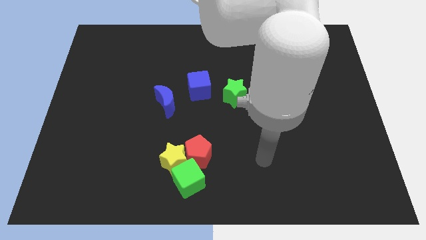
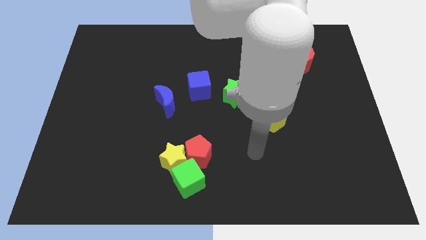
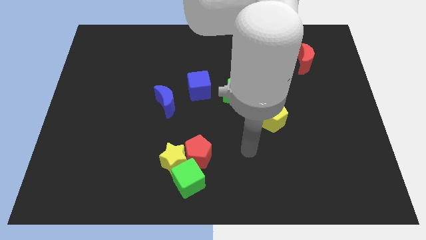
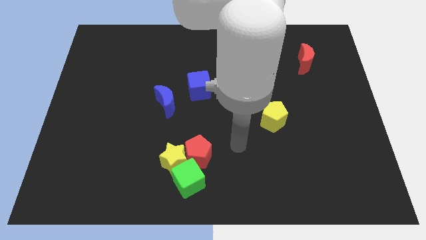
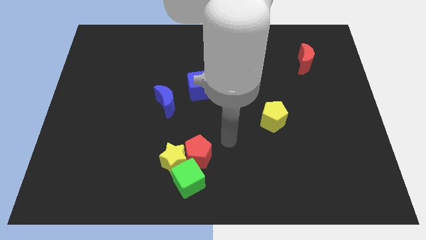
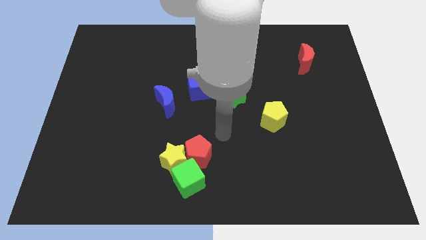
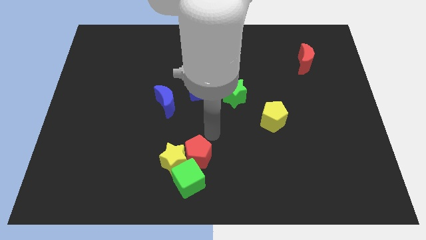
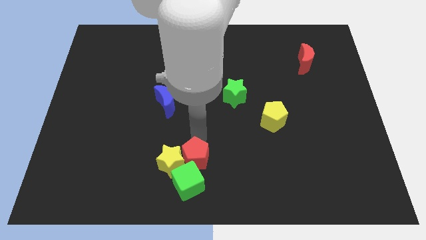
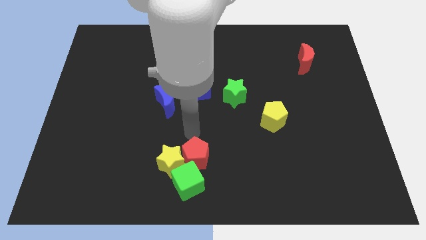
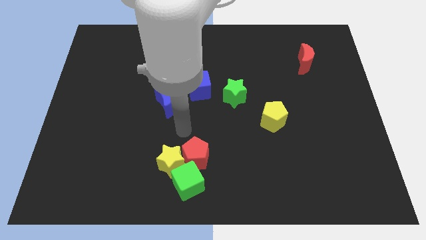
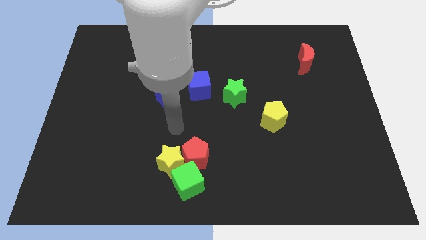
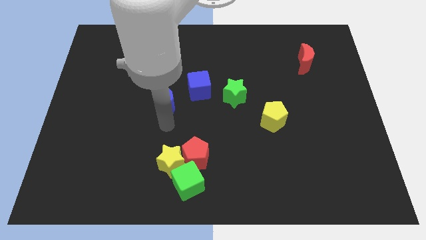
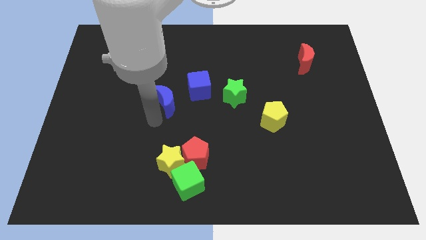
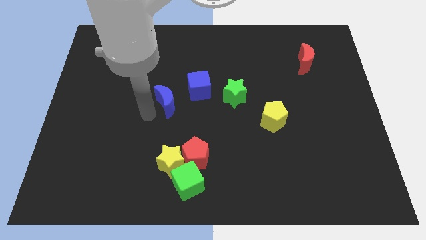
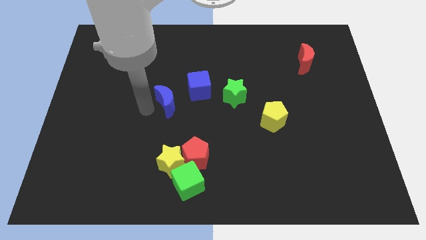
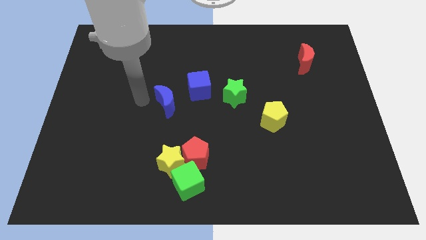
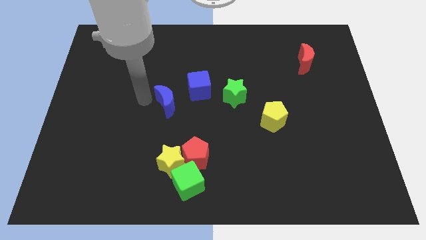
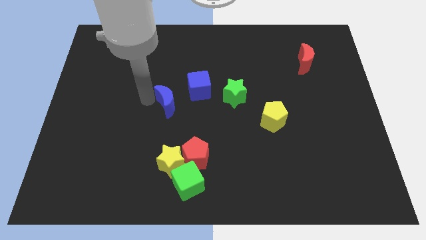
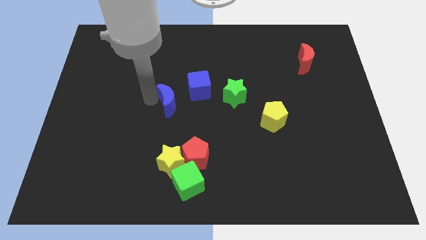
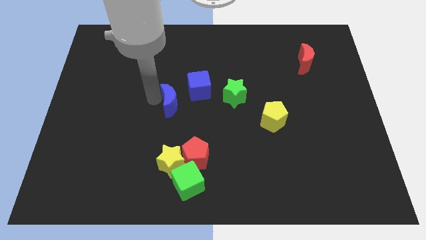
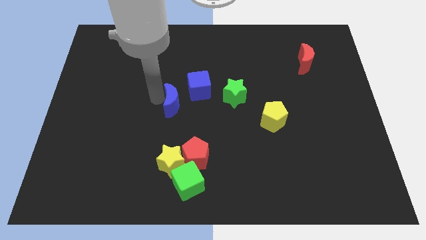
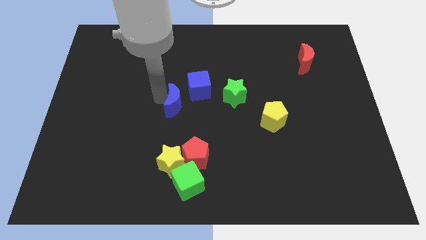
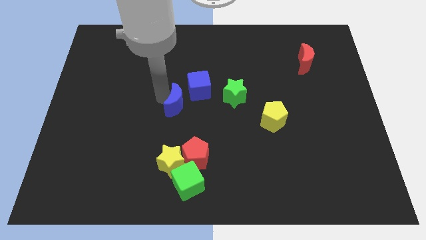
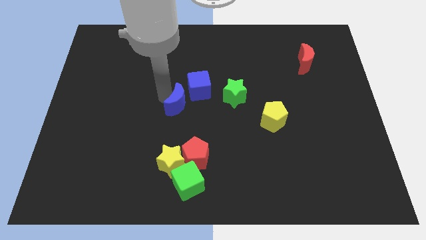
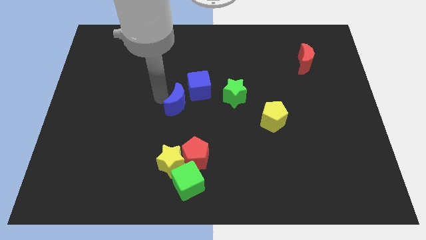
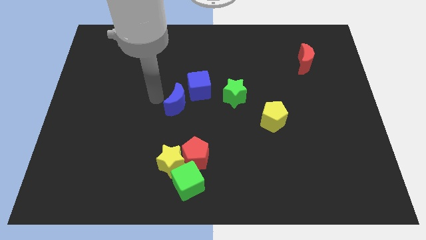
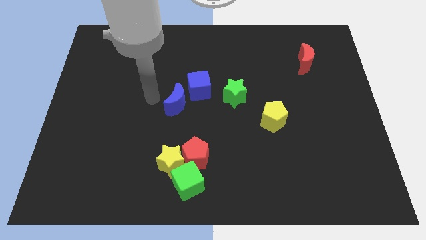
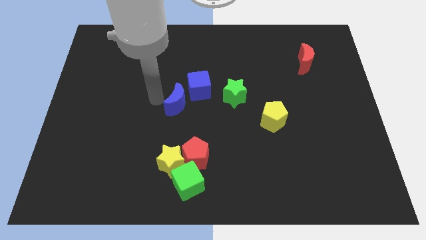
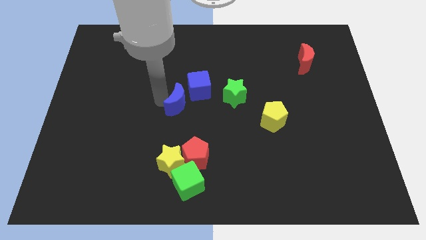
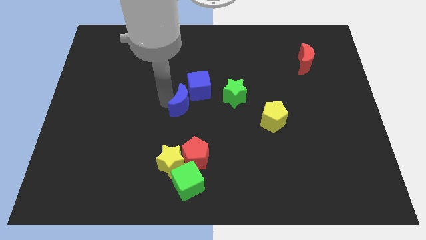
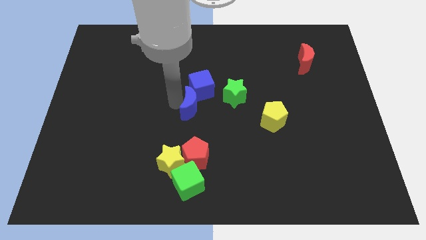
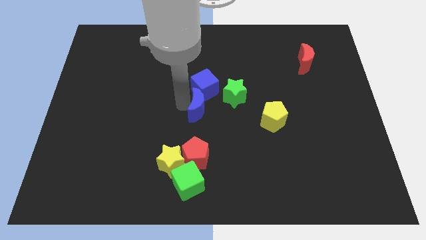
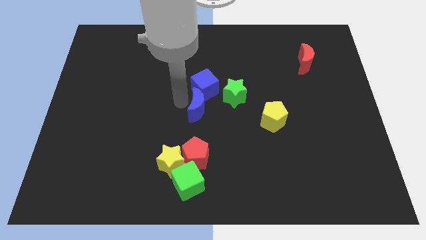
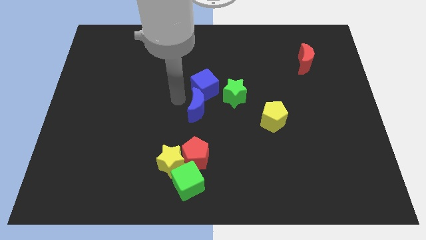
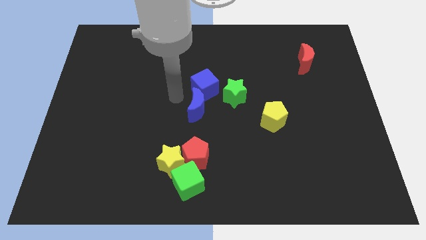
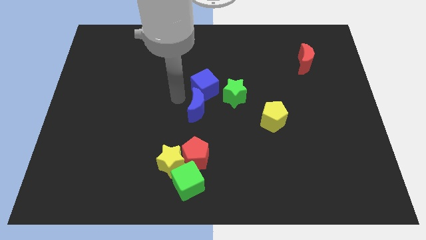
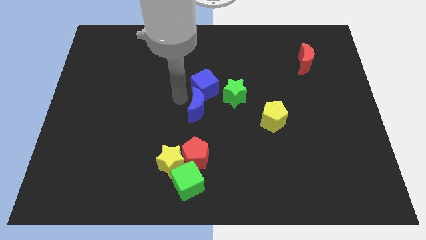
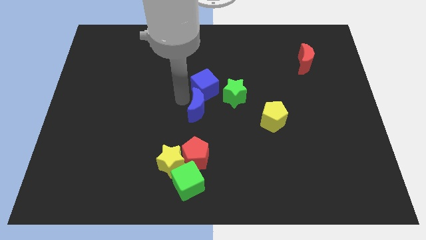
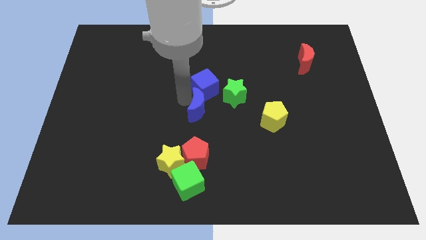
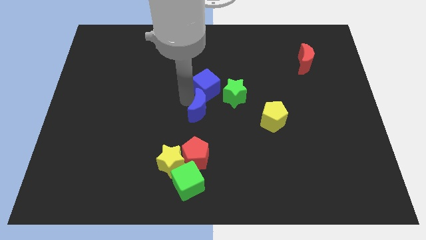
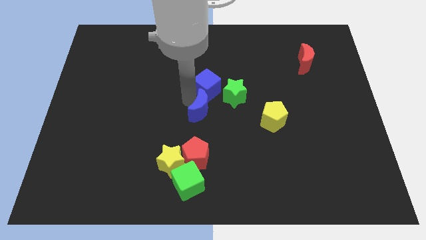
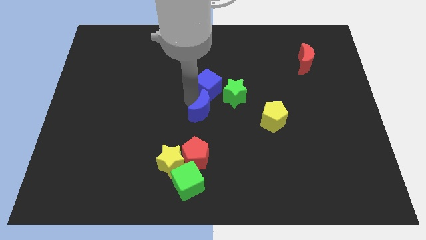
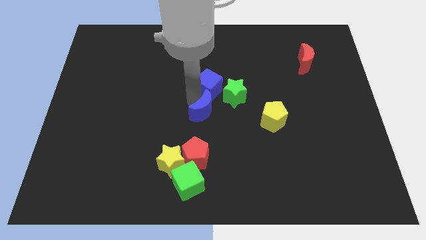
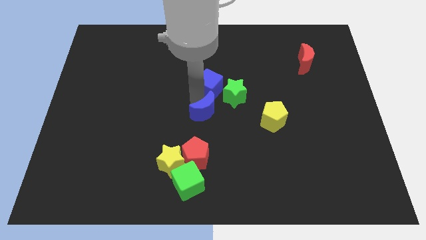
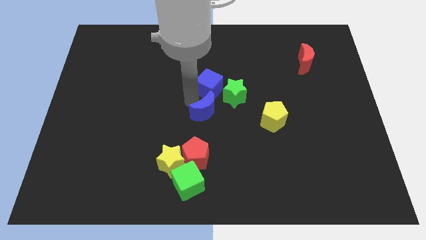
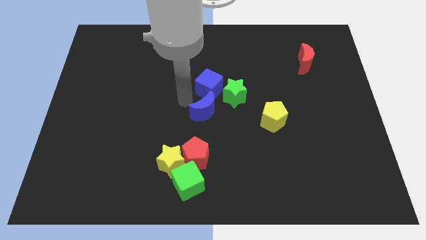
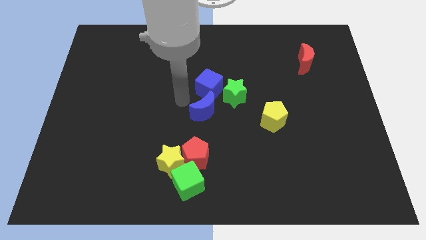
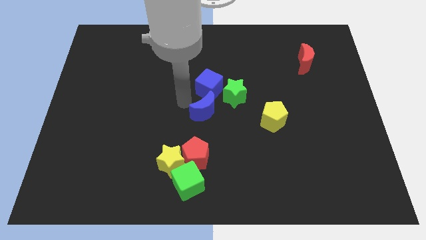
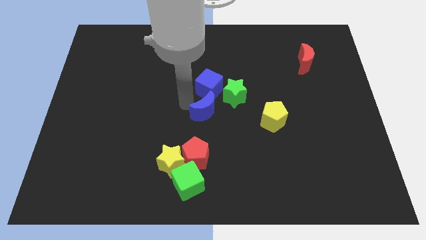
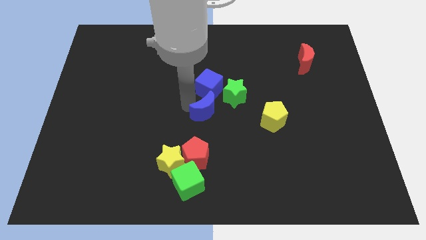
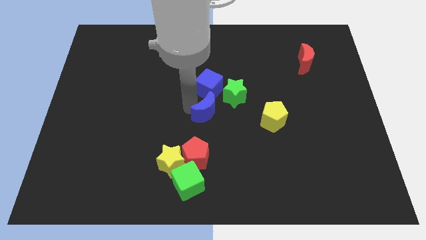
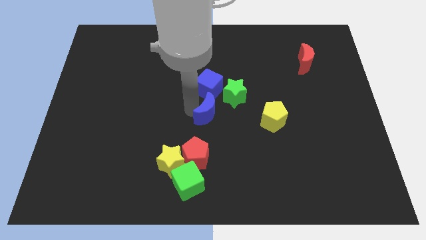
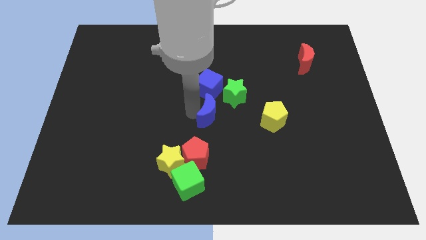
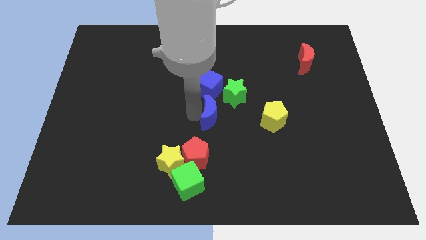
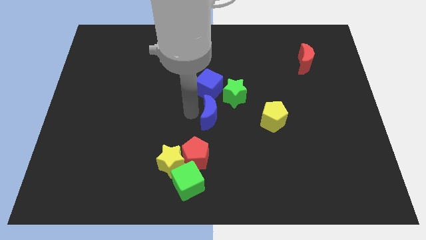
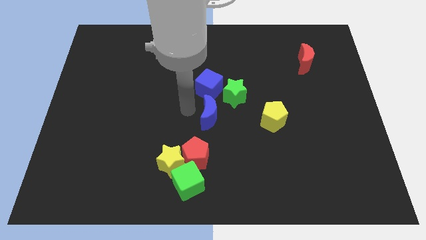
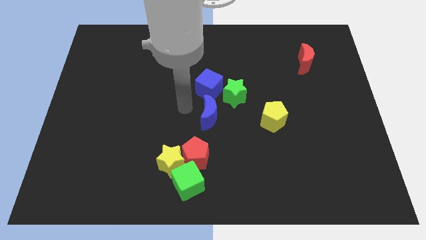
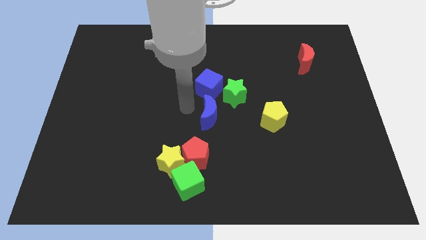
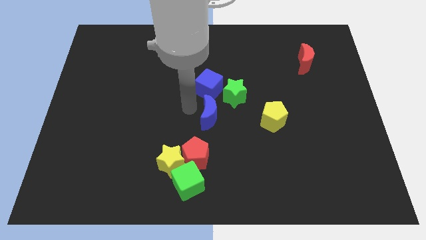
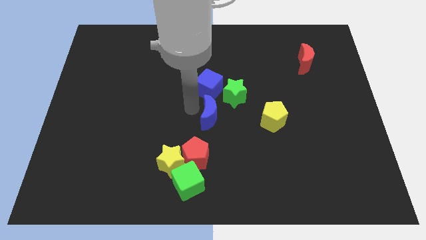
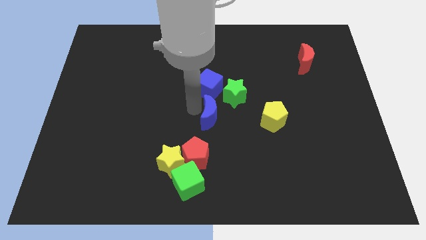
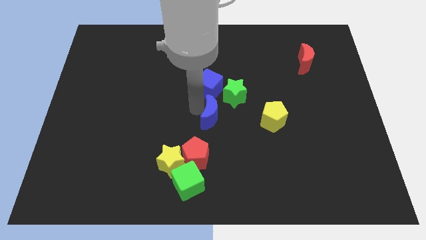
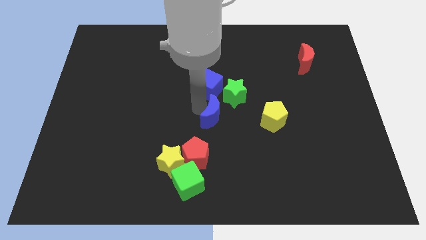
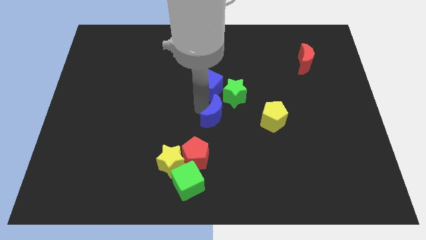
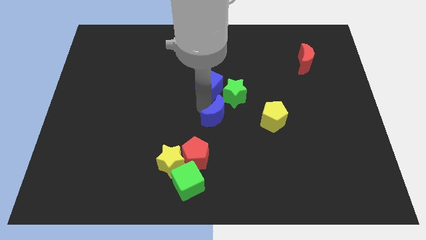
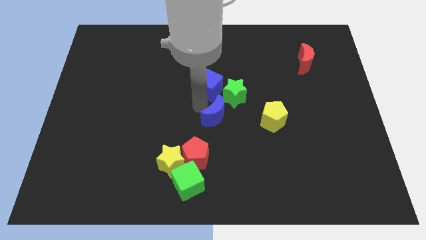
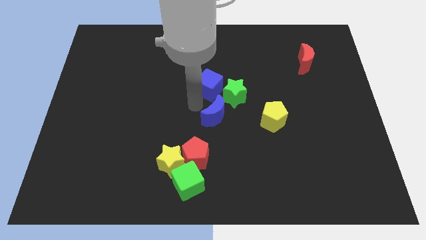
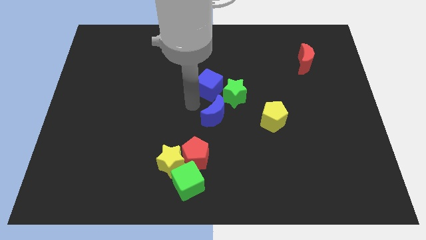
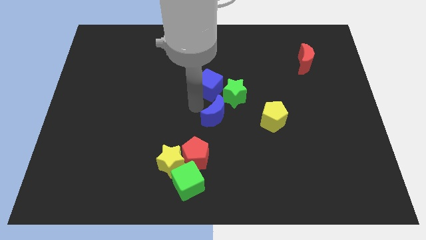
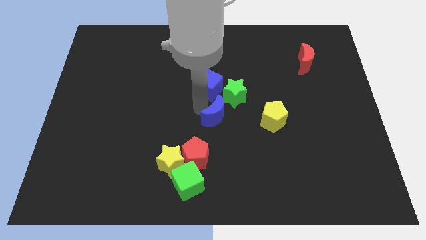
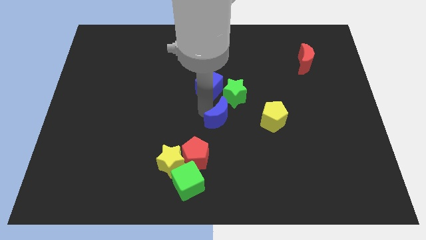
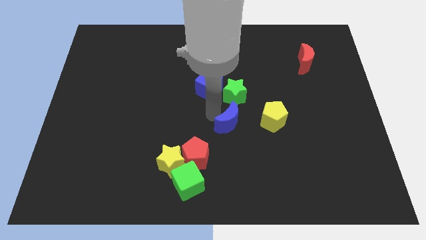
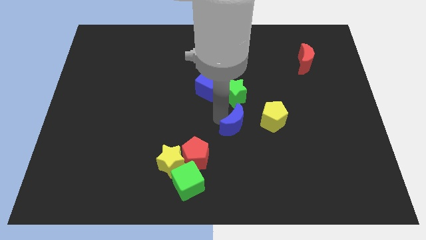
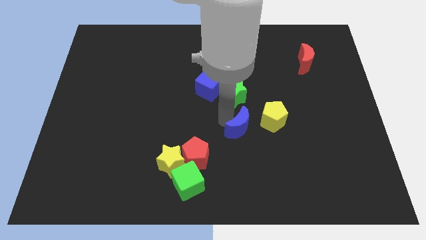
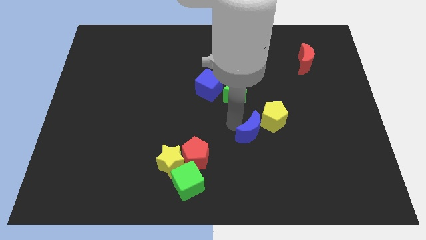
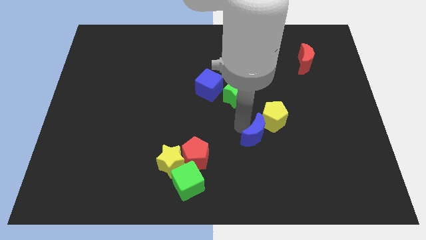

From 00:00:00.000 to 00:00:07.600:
move the blue moon to the bottom of the yellow pentagon
